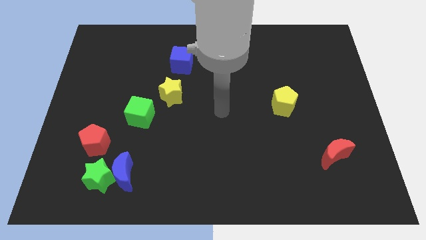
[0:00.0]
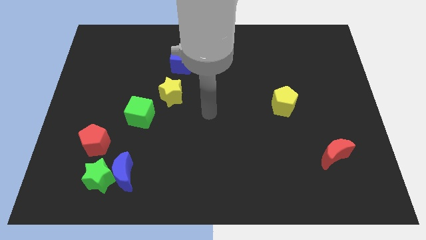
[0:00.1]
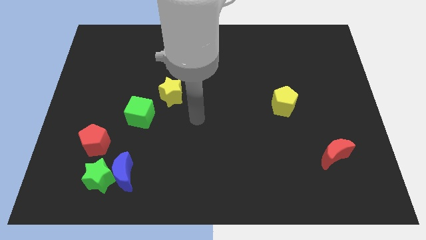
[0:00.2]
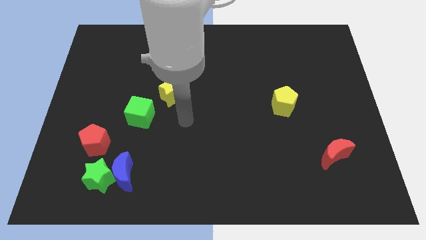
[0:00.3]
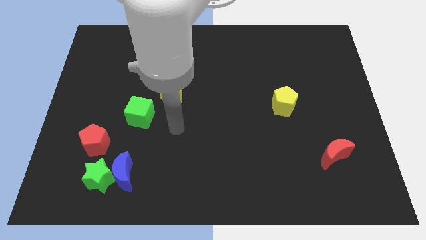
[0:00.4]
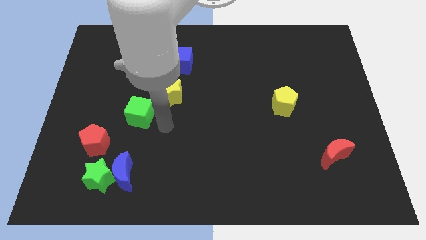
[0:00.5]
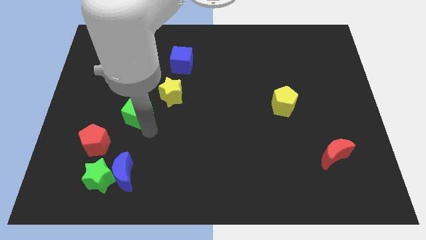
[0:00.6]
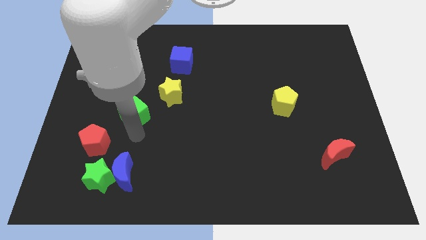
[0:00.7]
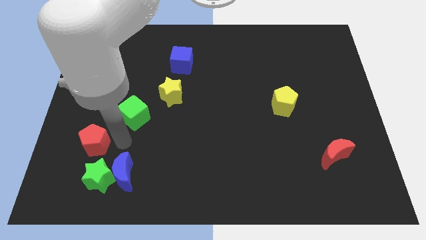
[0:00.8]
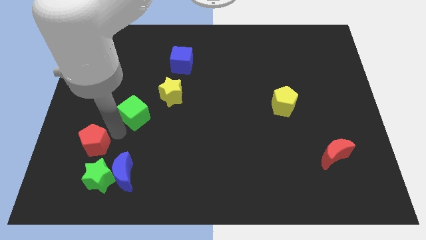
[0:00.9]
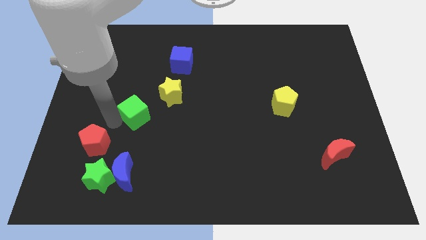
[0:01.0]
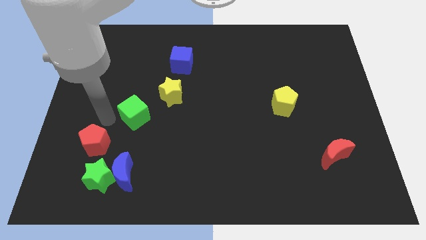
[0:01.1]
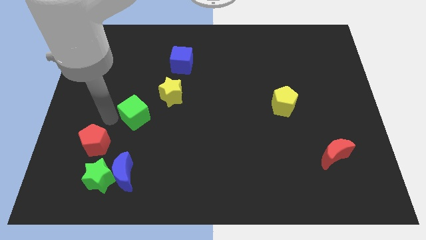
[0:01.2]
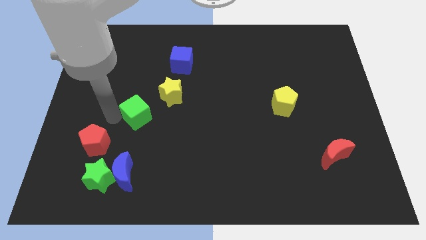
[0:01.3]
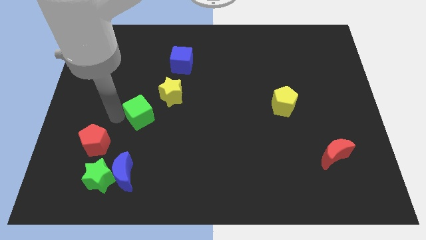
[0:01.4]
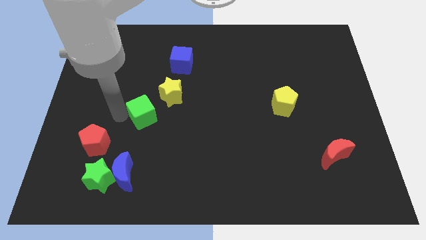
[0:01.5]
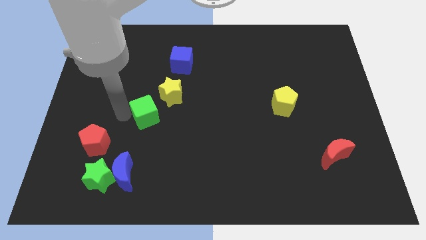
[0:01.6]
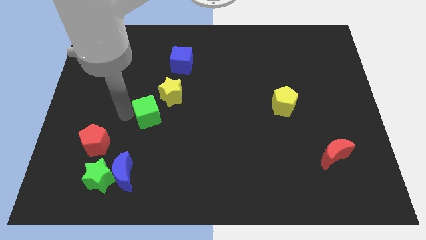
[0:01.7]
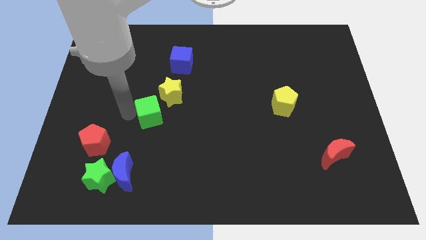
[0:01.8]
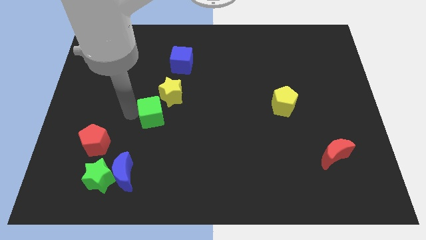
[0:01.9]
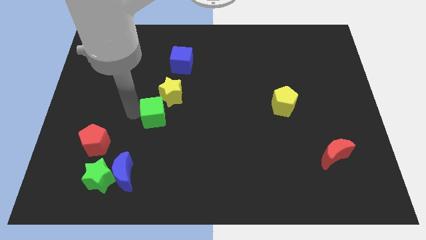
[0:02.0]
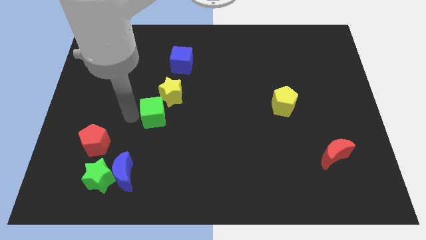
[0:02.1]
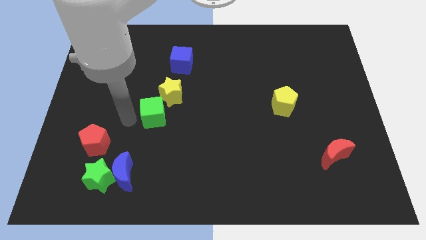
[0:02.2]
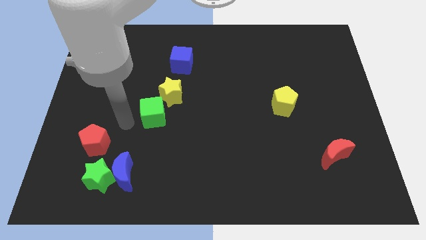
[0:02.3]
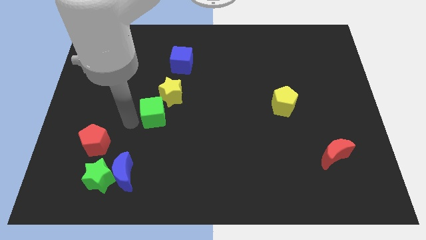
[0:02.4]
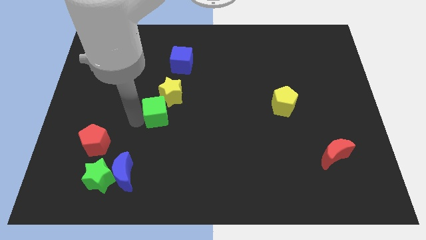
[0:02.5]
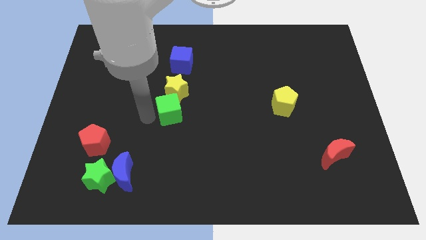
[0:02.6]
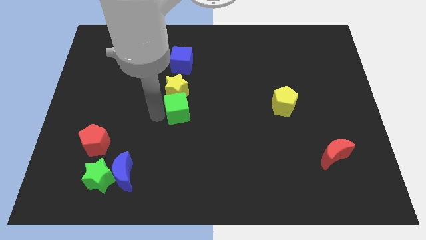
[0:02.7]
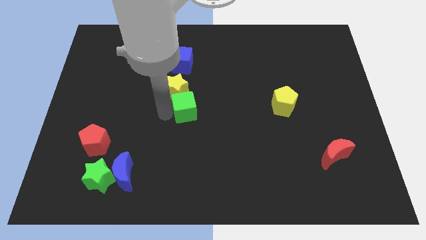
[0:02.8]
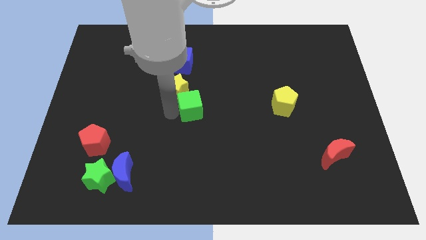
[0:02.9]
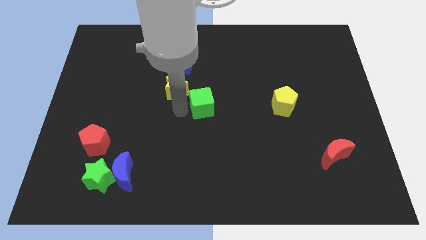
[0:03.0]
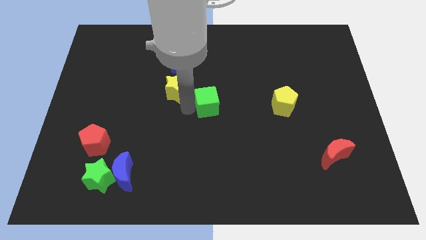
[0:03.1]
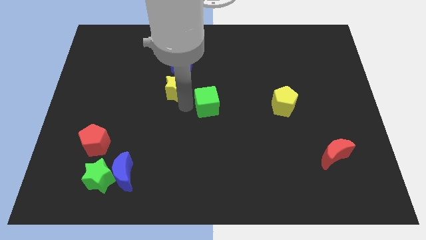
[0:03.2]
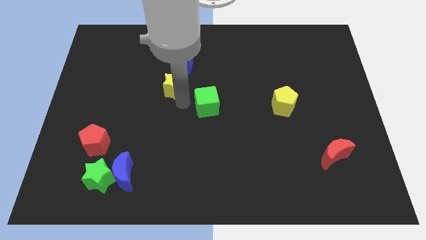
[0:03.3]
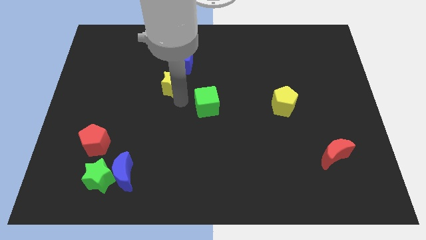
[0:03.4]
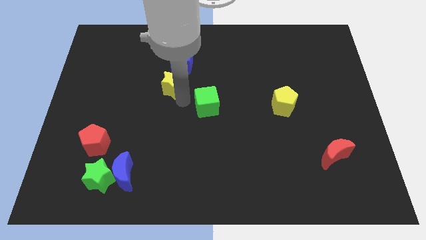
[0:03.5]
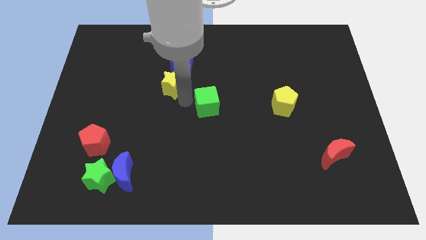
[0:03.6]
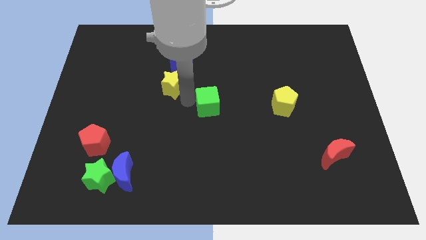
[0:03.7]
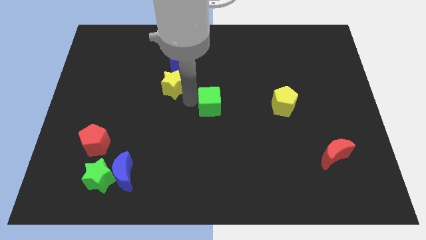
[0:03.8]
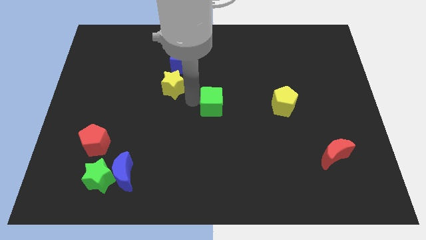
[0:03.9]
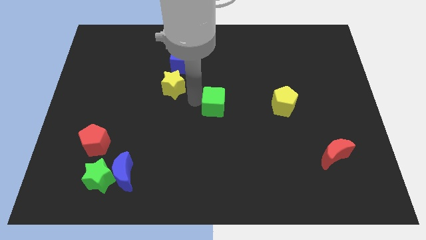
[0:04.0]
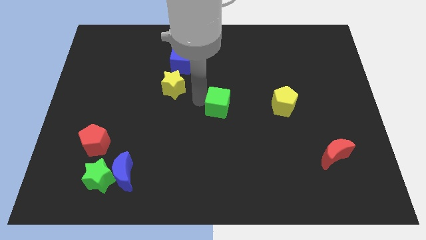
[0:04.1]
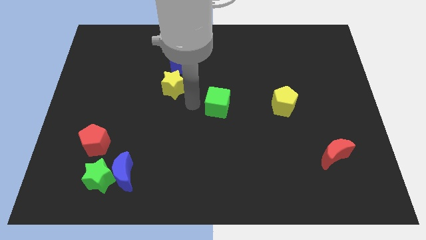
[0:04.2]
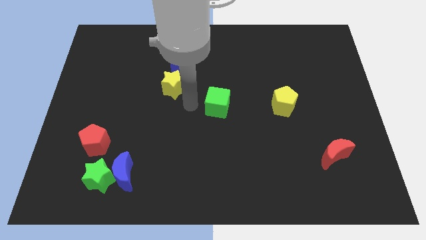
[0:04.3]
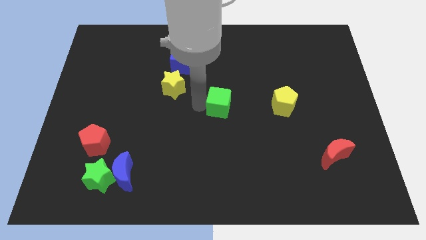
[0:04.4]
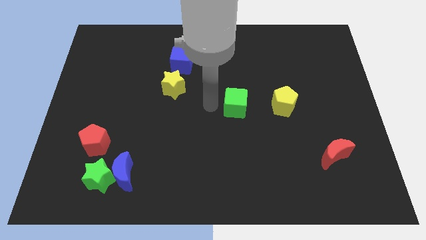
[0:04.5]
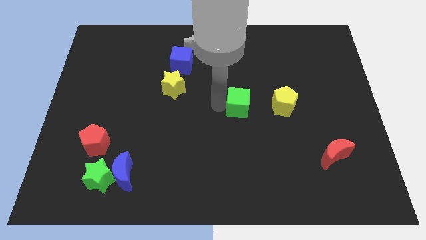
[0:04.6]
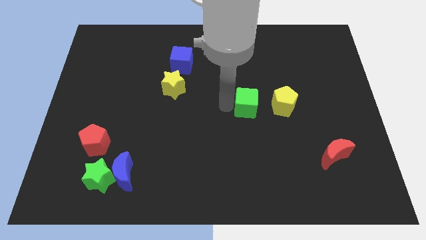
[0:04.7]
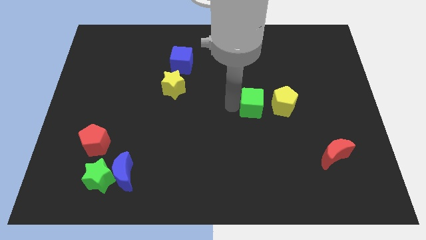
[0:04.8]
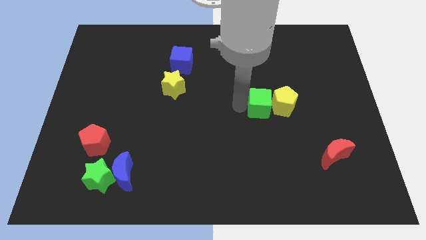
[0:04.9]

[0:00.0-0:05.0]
put the green cube to the yellow pentagon

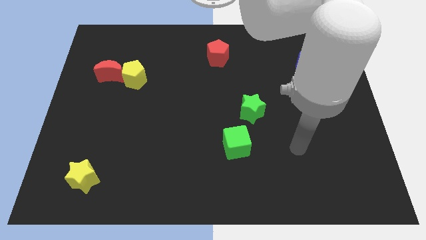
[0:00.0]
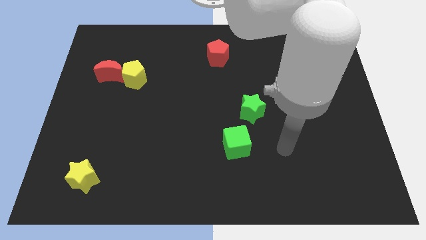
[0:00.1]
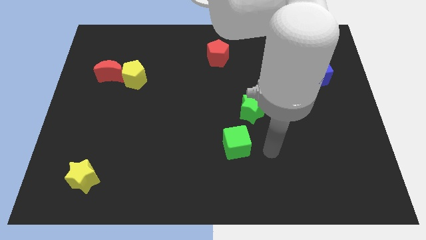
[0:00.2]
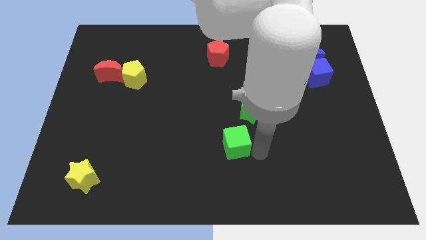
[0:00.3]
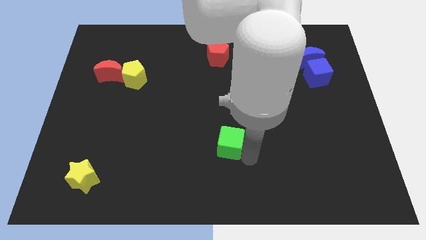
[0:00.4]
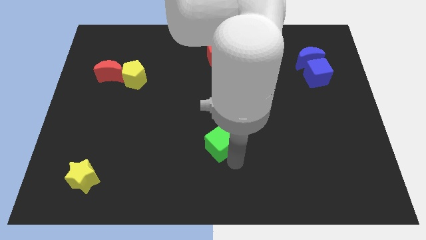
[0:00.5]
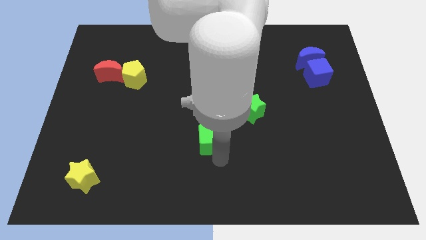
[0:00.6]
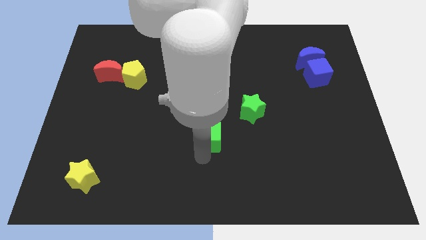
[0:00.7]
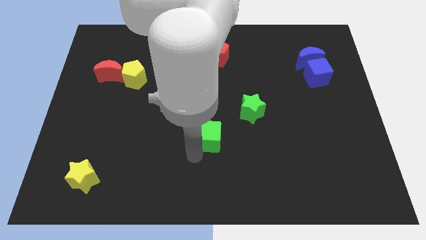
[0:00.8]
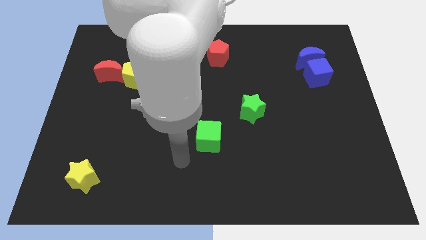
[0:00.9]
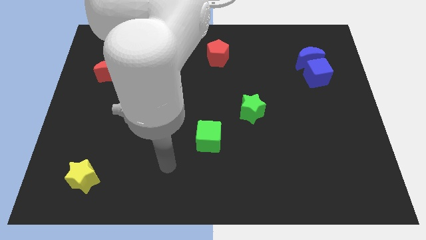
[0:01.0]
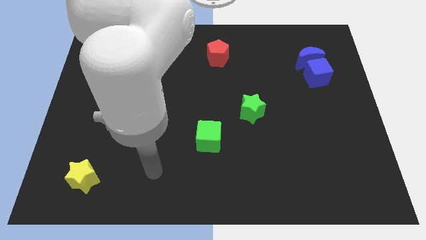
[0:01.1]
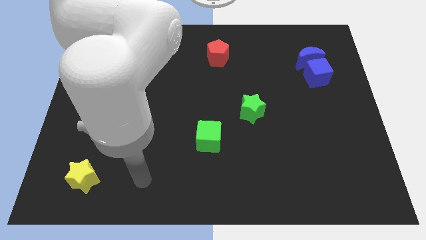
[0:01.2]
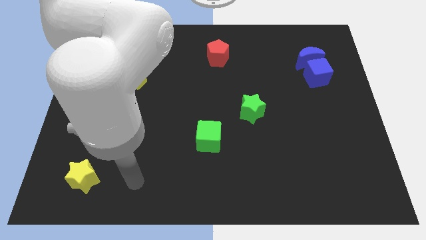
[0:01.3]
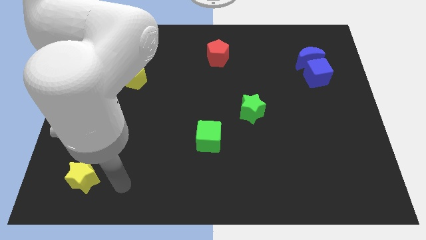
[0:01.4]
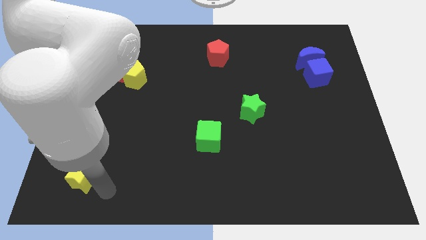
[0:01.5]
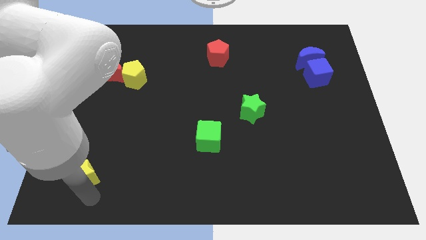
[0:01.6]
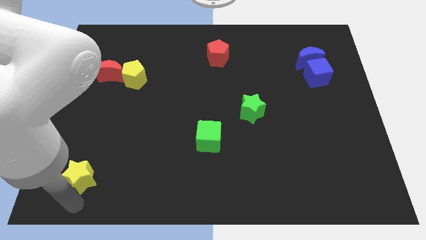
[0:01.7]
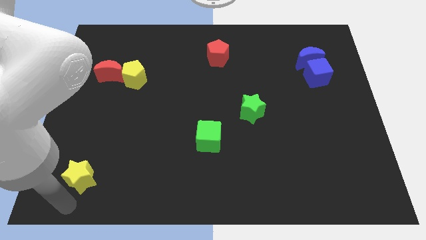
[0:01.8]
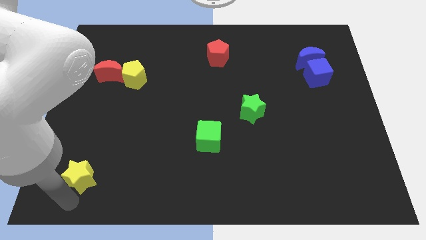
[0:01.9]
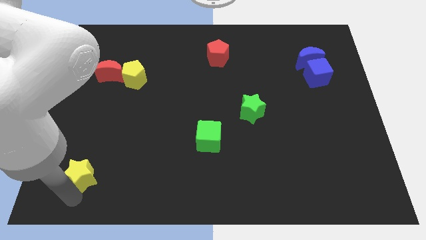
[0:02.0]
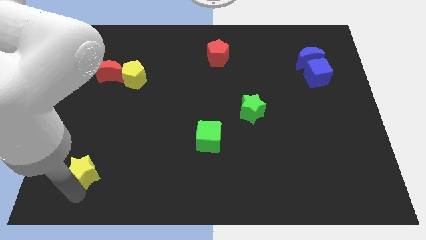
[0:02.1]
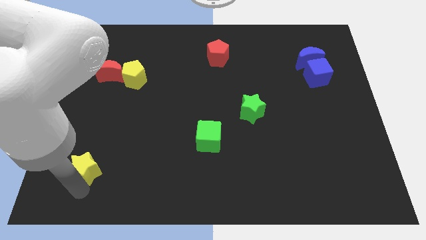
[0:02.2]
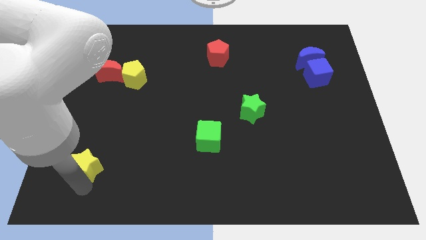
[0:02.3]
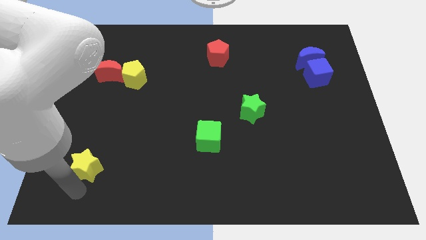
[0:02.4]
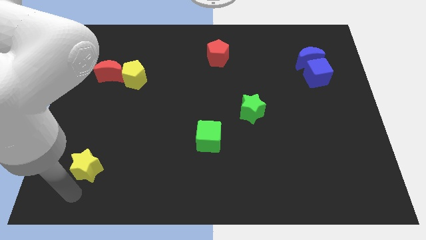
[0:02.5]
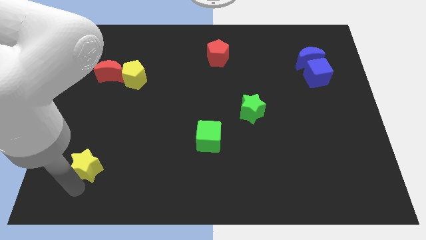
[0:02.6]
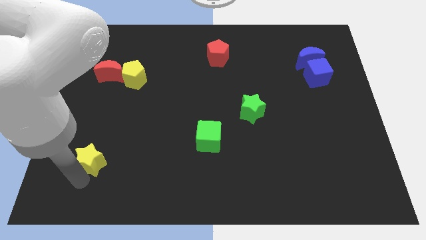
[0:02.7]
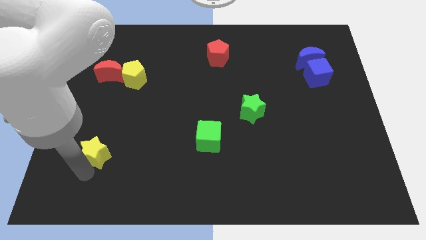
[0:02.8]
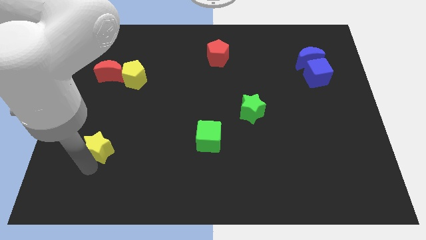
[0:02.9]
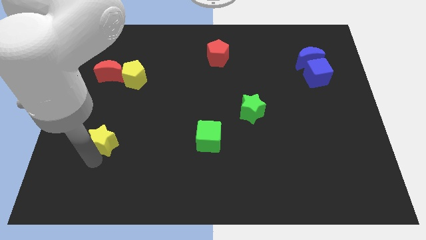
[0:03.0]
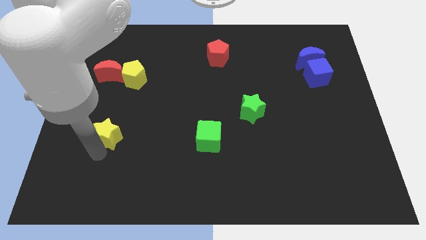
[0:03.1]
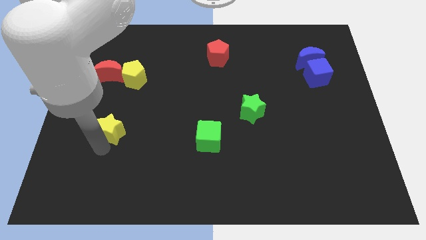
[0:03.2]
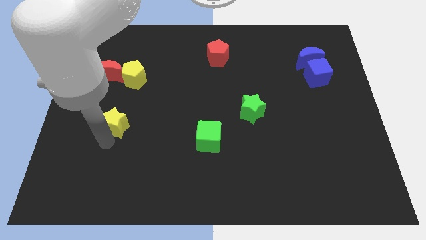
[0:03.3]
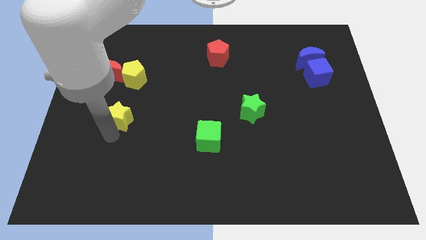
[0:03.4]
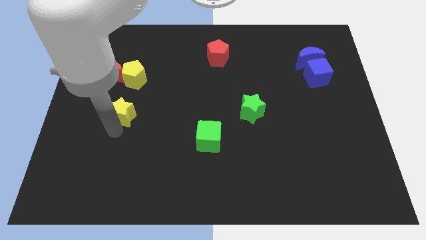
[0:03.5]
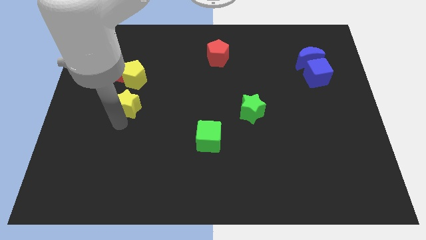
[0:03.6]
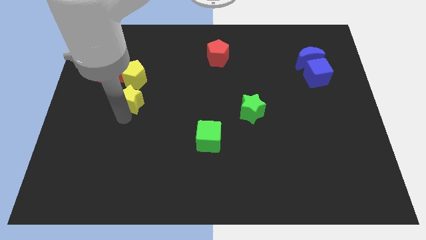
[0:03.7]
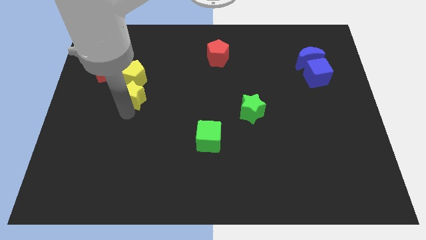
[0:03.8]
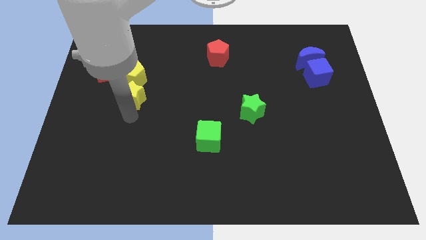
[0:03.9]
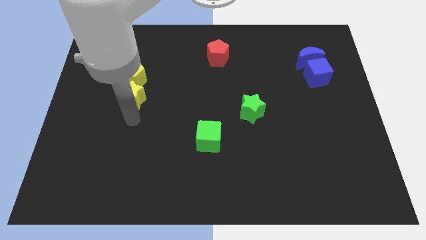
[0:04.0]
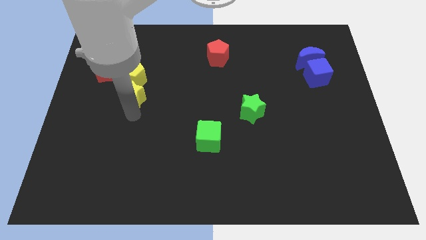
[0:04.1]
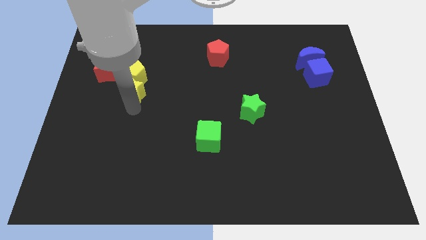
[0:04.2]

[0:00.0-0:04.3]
put the yellow star to the yellow pentagon
